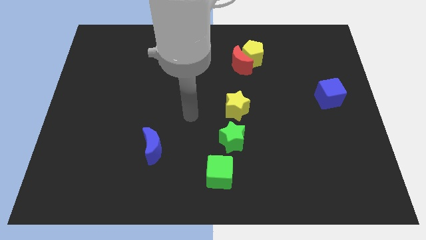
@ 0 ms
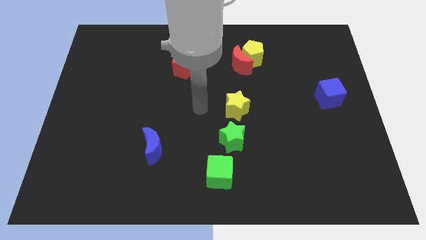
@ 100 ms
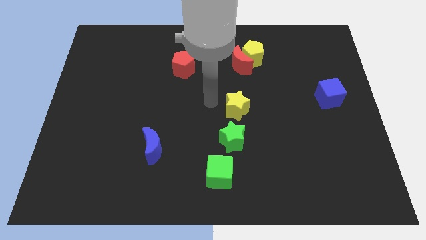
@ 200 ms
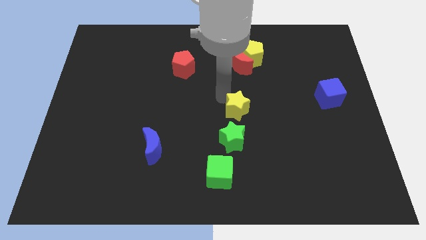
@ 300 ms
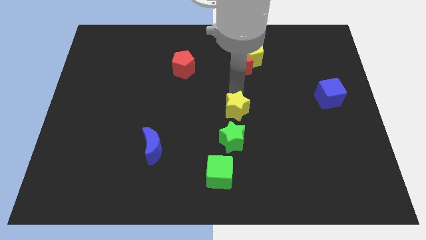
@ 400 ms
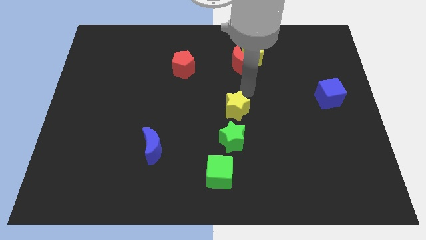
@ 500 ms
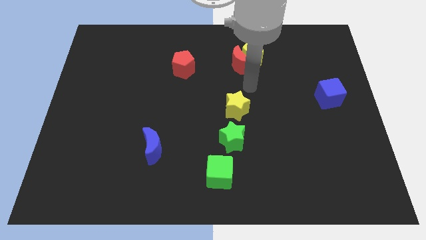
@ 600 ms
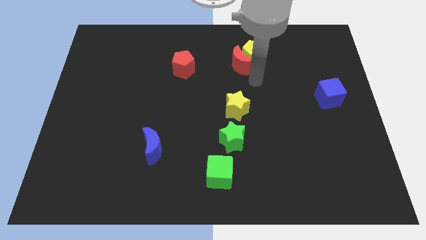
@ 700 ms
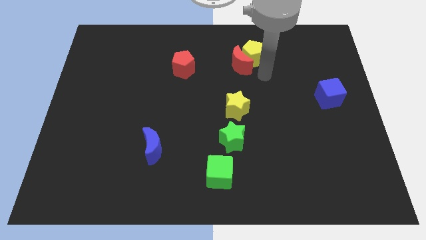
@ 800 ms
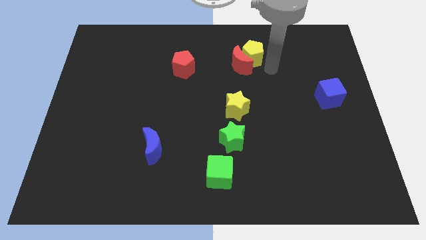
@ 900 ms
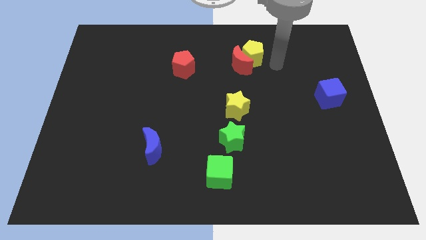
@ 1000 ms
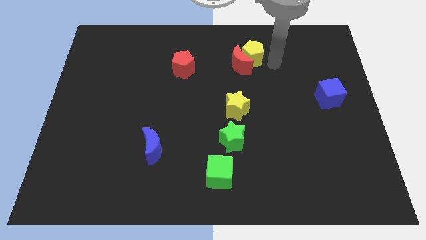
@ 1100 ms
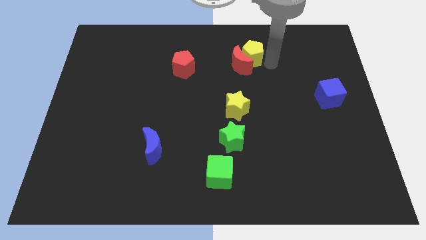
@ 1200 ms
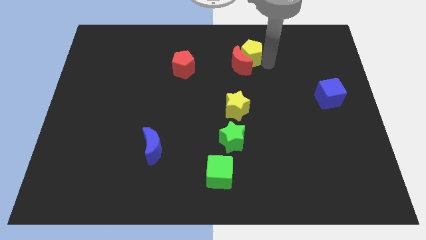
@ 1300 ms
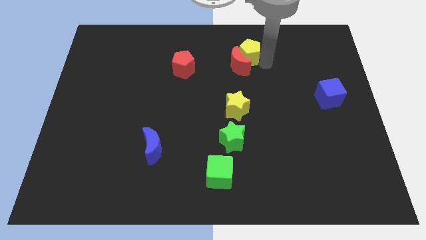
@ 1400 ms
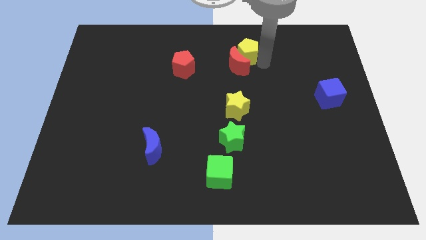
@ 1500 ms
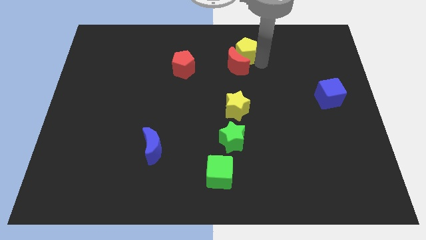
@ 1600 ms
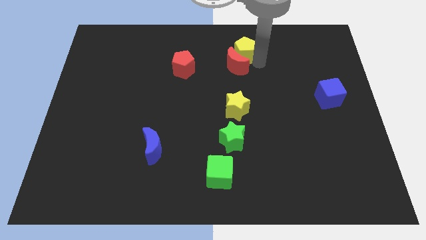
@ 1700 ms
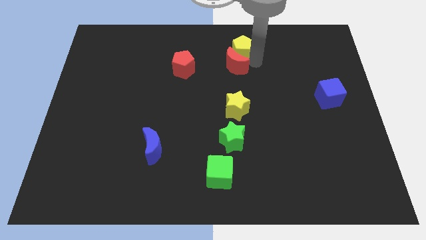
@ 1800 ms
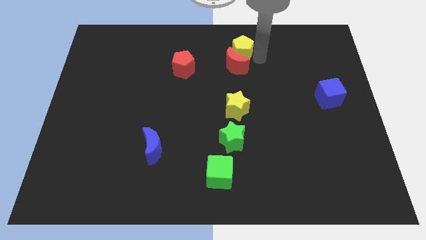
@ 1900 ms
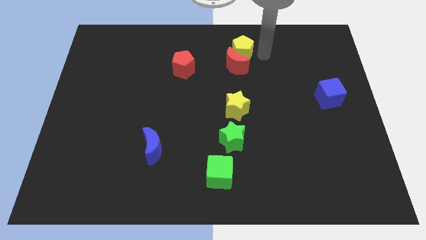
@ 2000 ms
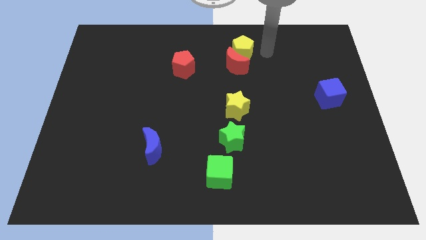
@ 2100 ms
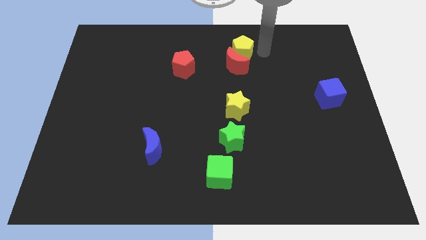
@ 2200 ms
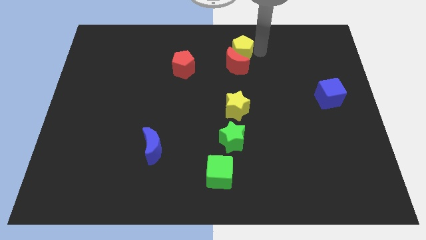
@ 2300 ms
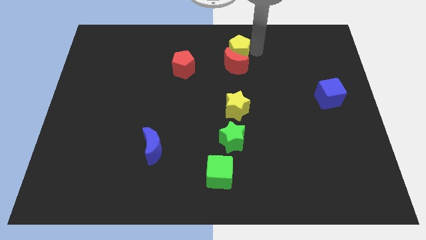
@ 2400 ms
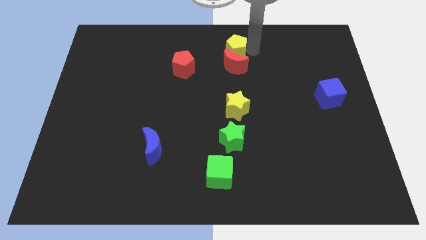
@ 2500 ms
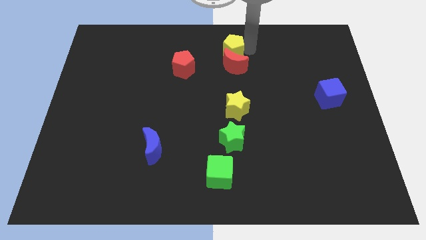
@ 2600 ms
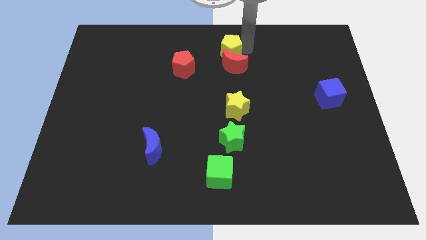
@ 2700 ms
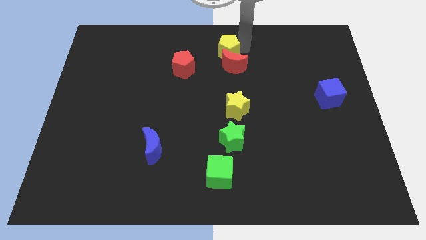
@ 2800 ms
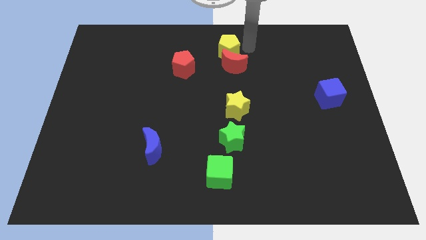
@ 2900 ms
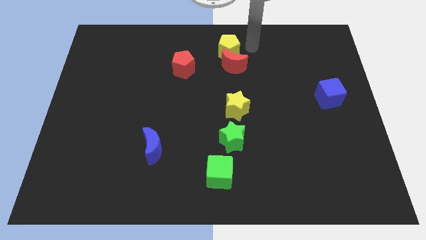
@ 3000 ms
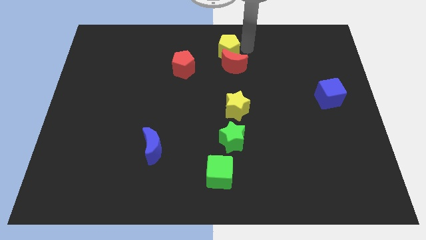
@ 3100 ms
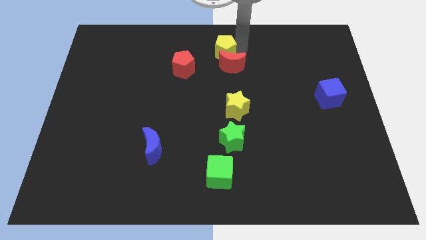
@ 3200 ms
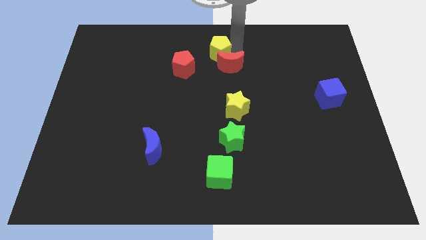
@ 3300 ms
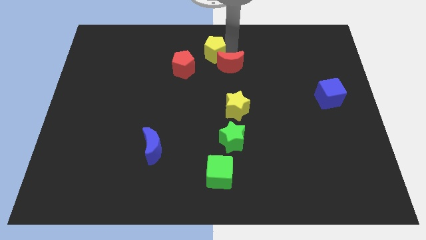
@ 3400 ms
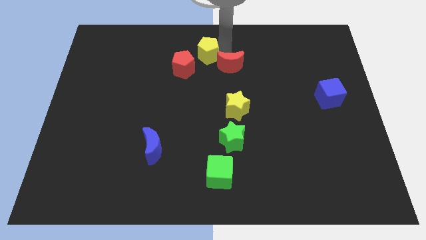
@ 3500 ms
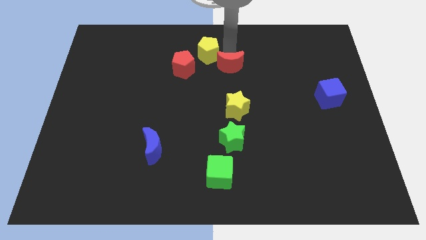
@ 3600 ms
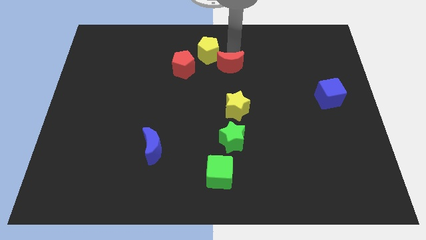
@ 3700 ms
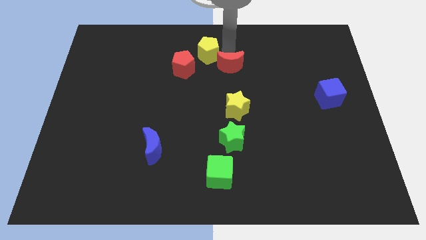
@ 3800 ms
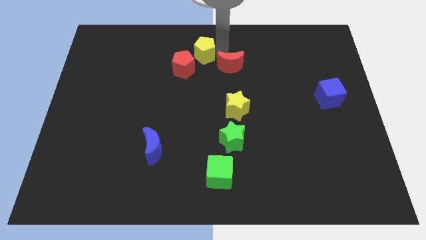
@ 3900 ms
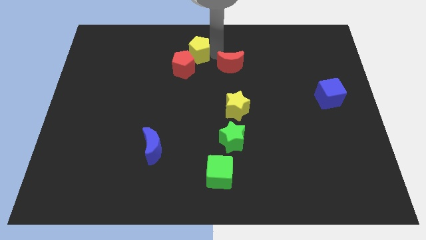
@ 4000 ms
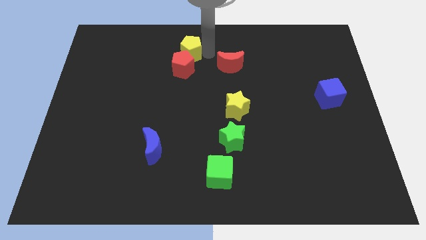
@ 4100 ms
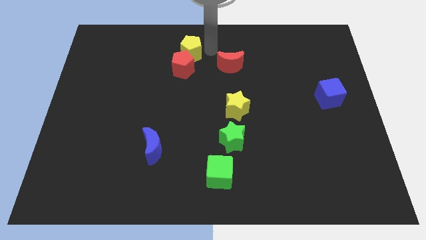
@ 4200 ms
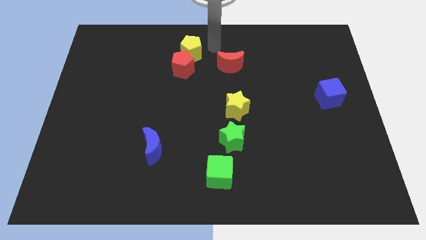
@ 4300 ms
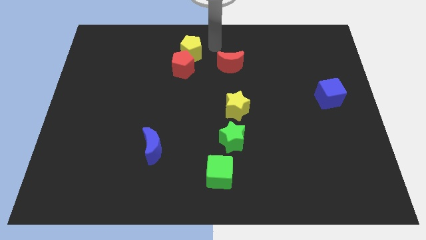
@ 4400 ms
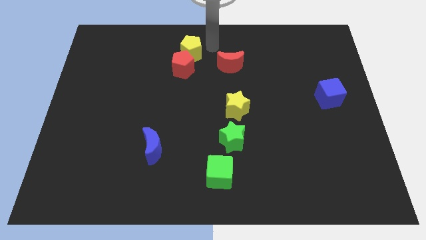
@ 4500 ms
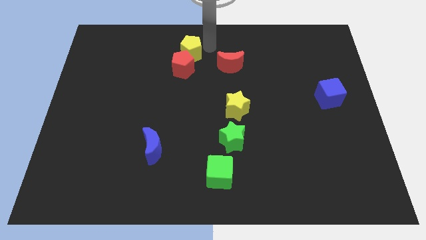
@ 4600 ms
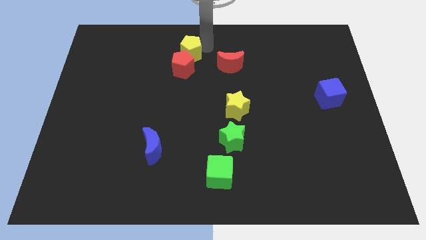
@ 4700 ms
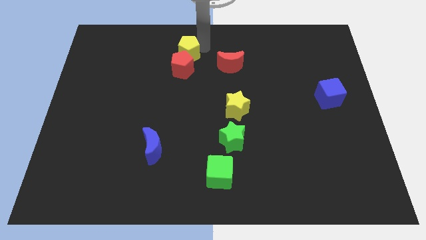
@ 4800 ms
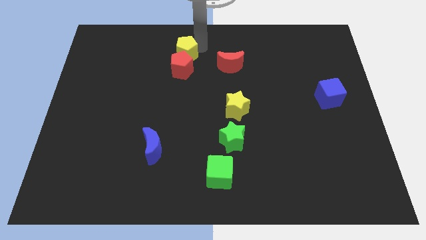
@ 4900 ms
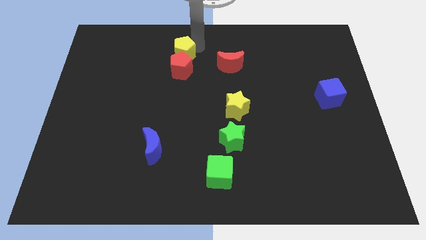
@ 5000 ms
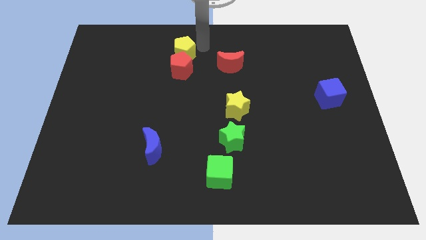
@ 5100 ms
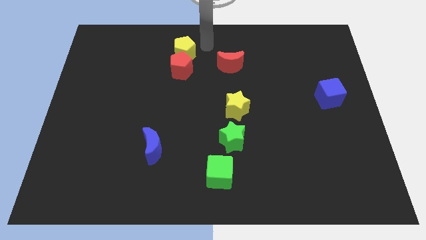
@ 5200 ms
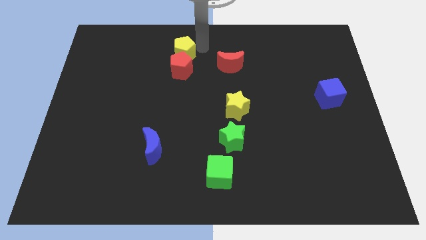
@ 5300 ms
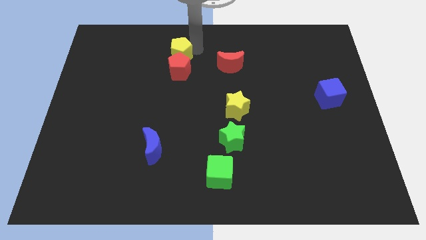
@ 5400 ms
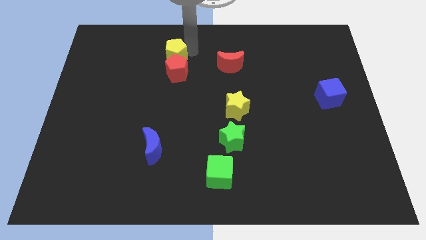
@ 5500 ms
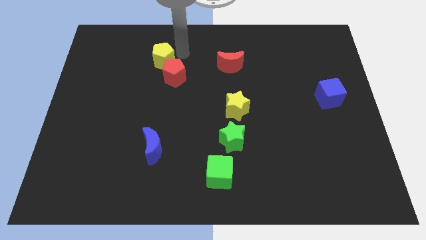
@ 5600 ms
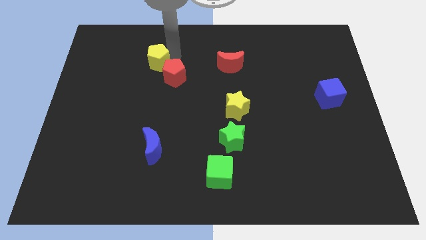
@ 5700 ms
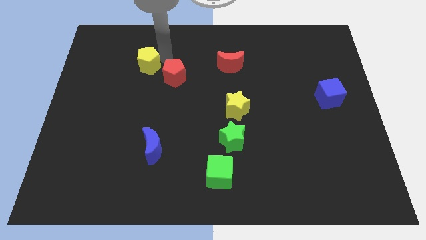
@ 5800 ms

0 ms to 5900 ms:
push the yellow pentagon left of the red pentagon

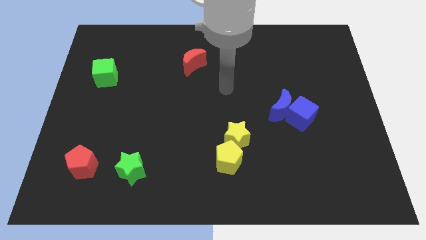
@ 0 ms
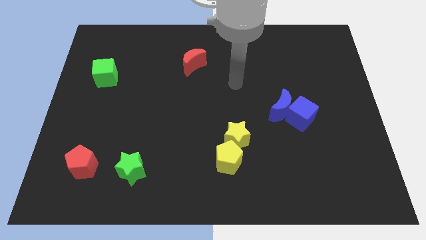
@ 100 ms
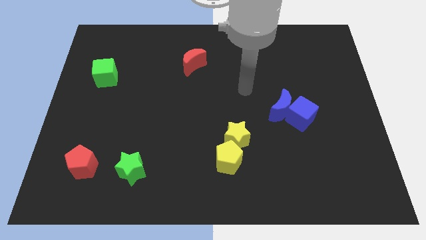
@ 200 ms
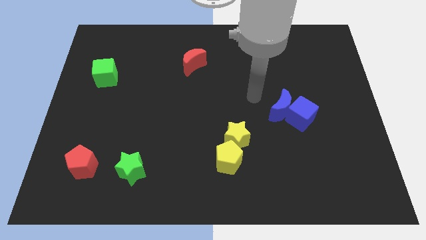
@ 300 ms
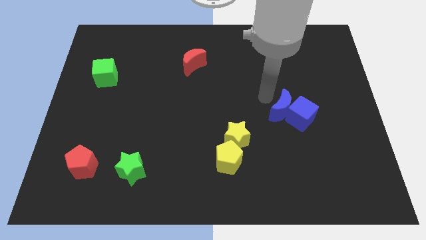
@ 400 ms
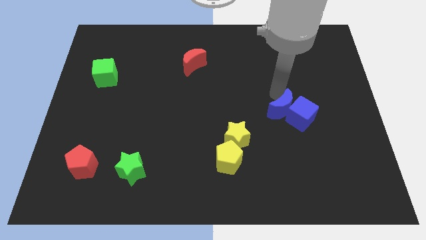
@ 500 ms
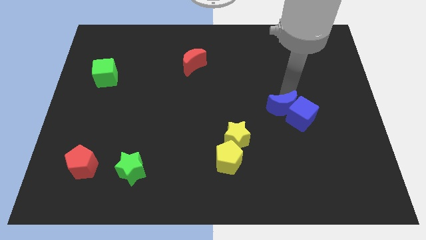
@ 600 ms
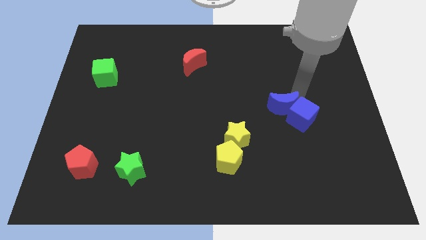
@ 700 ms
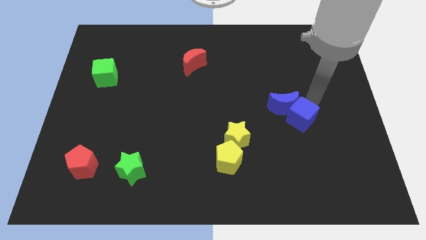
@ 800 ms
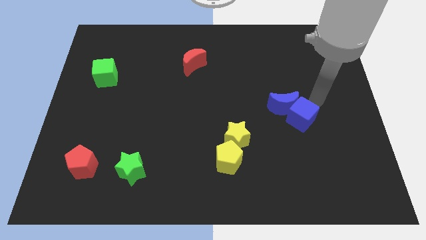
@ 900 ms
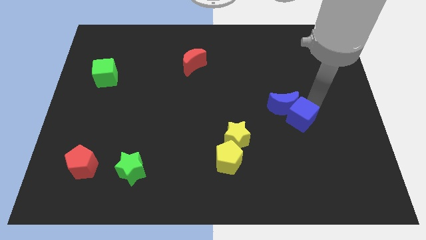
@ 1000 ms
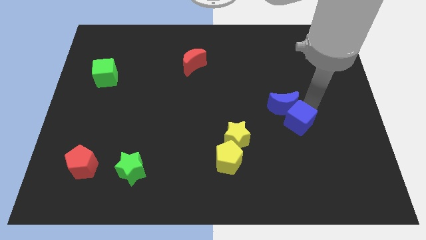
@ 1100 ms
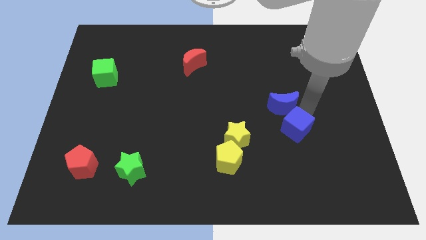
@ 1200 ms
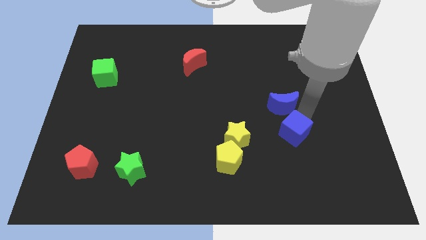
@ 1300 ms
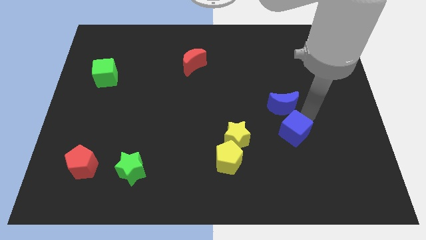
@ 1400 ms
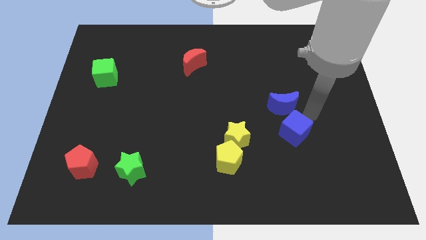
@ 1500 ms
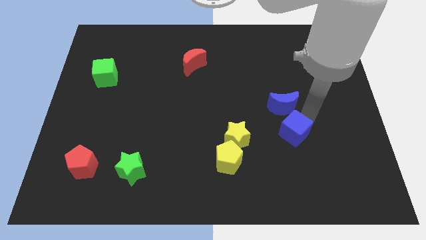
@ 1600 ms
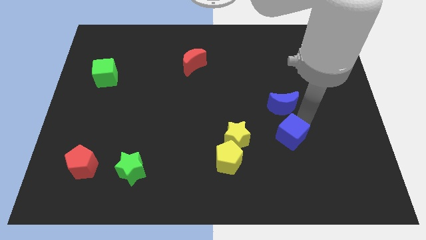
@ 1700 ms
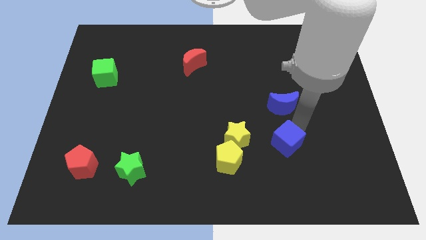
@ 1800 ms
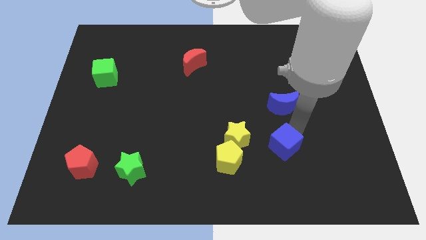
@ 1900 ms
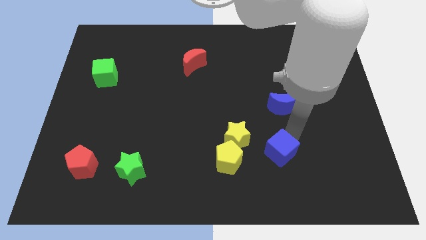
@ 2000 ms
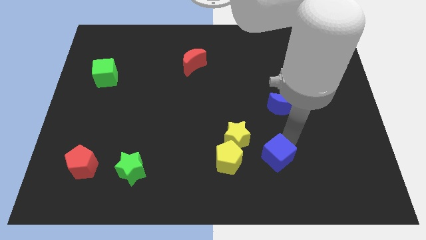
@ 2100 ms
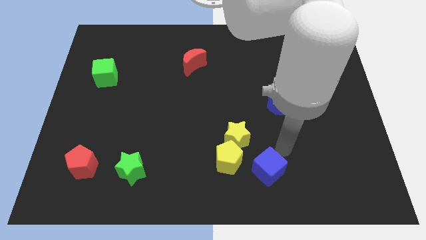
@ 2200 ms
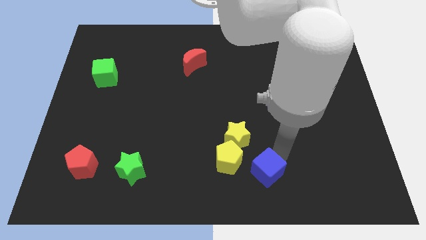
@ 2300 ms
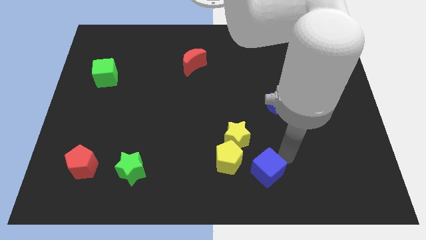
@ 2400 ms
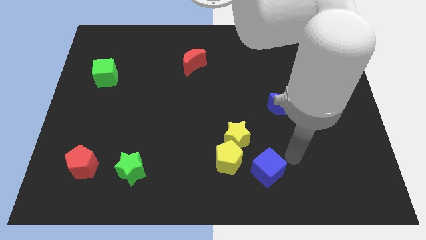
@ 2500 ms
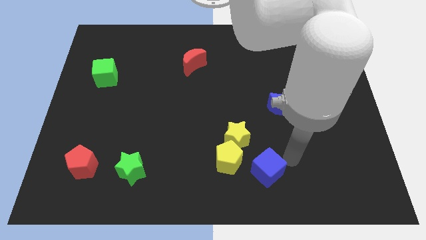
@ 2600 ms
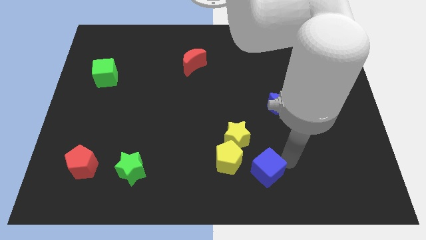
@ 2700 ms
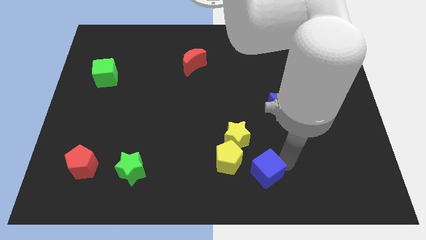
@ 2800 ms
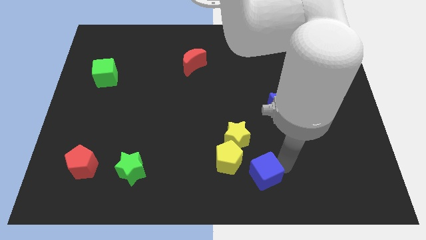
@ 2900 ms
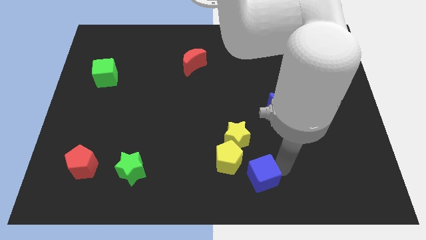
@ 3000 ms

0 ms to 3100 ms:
move the blue cube below the yellow star
